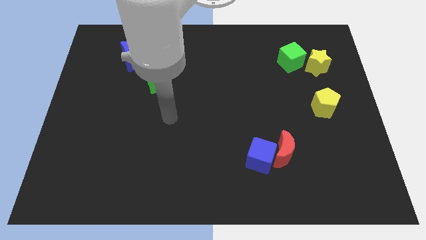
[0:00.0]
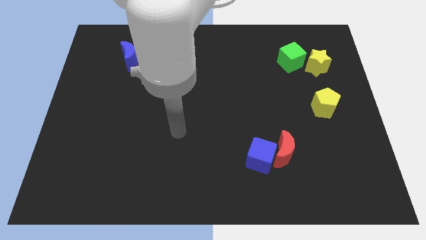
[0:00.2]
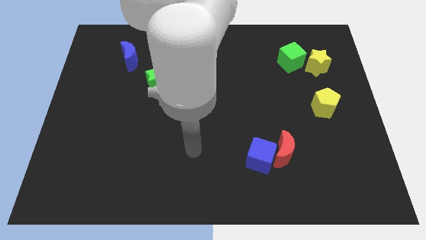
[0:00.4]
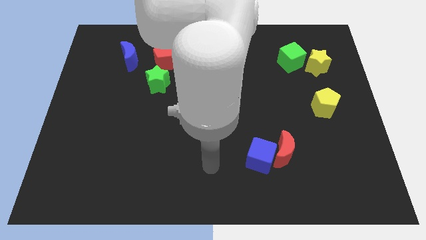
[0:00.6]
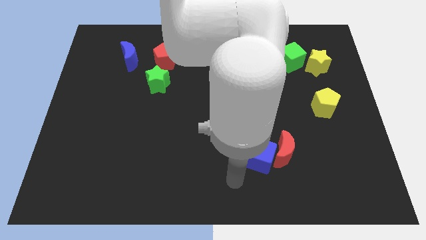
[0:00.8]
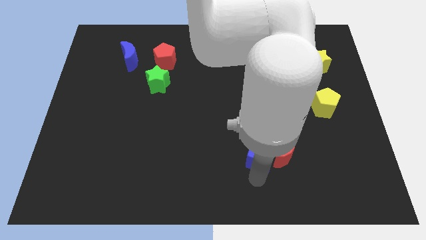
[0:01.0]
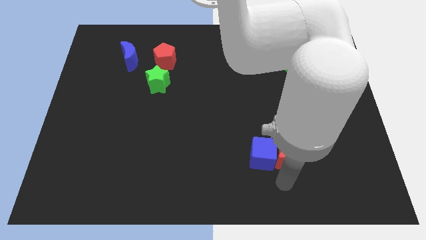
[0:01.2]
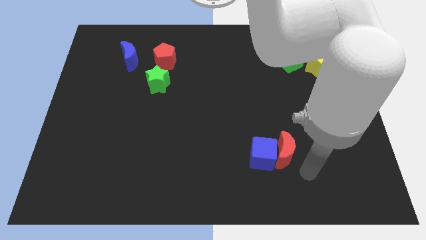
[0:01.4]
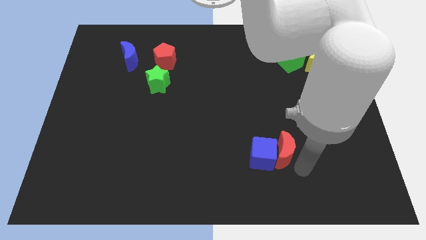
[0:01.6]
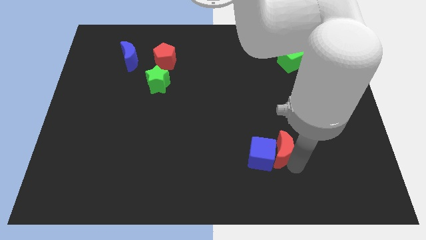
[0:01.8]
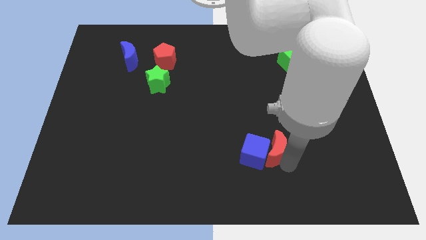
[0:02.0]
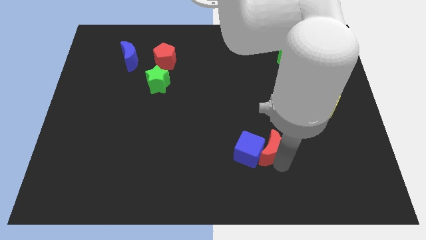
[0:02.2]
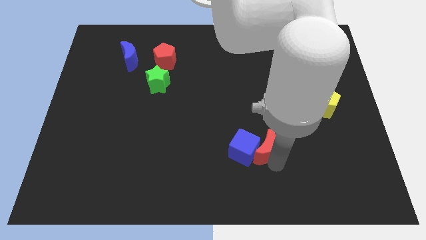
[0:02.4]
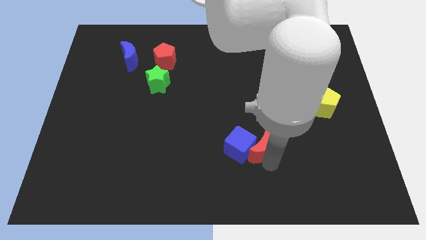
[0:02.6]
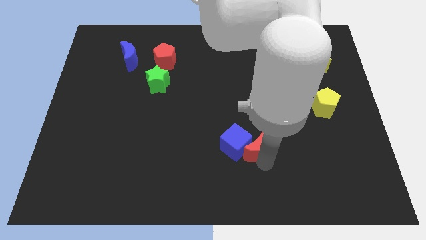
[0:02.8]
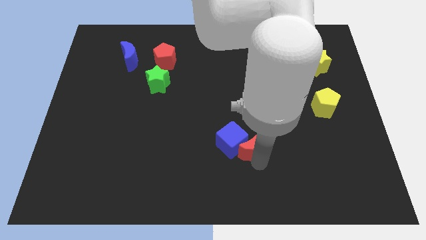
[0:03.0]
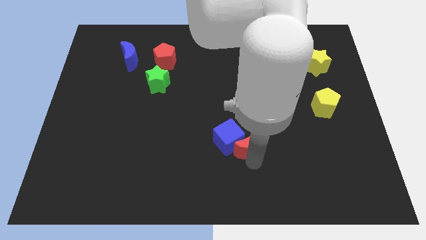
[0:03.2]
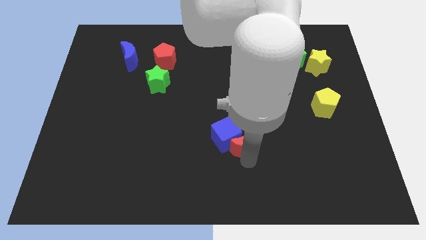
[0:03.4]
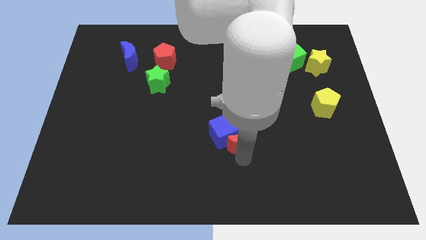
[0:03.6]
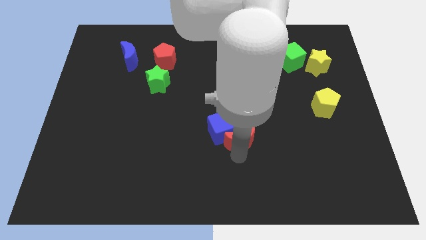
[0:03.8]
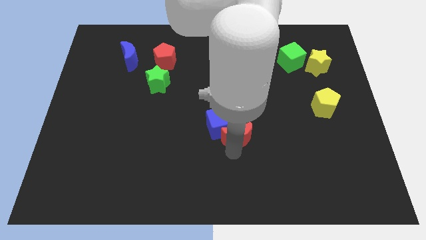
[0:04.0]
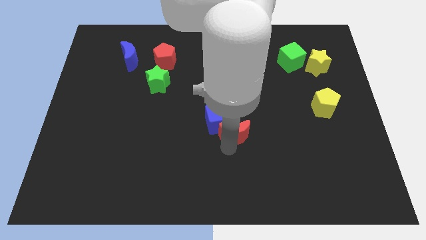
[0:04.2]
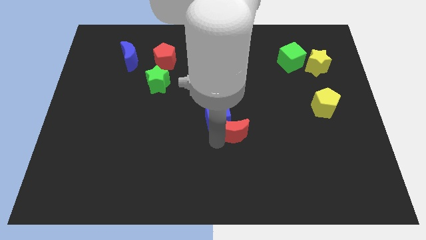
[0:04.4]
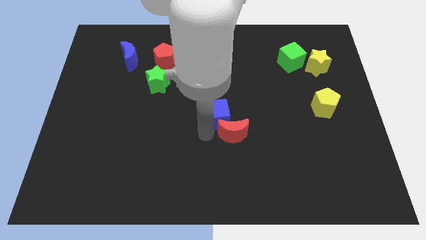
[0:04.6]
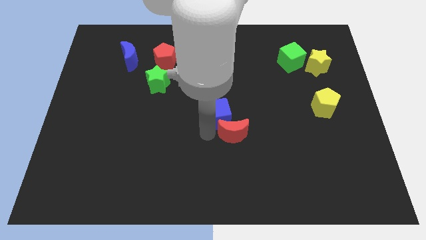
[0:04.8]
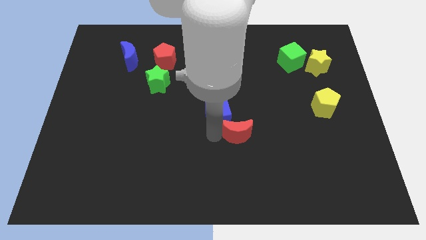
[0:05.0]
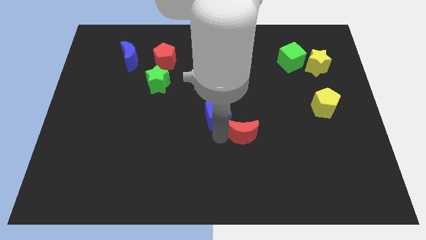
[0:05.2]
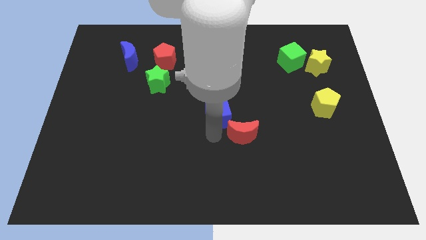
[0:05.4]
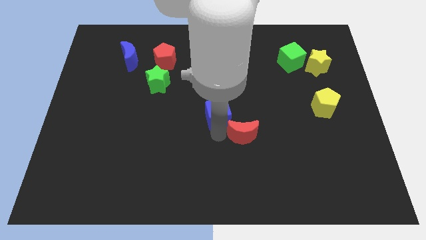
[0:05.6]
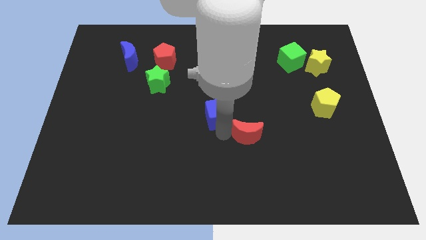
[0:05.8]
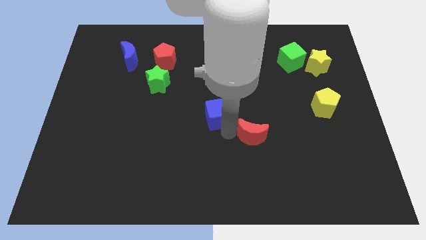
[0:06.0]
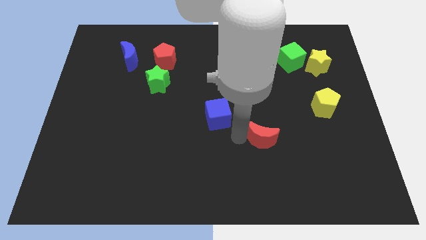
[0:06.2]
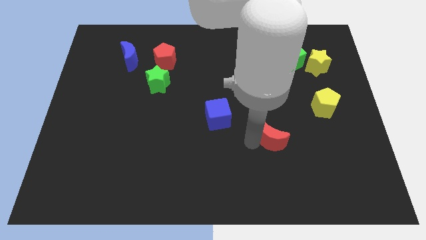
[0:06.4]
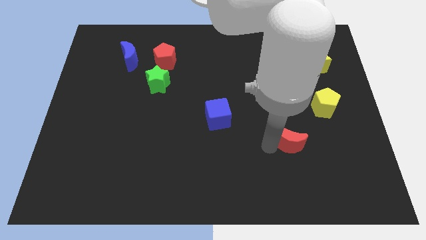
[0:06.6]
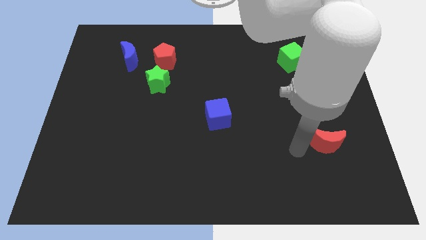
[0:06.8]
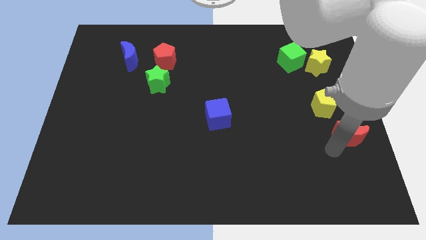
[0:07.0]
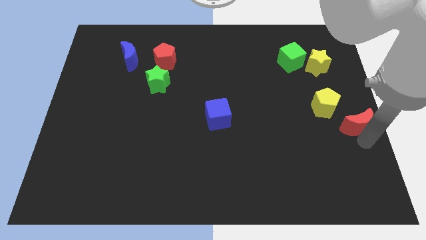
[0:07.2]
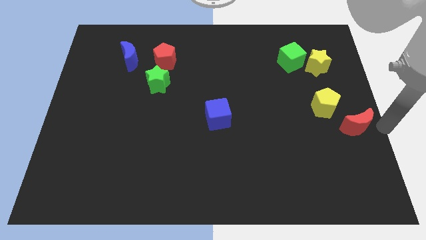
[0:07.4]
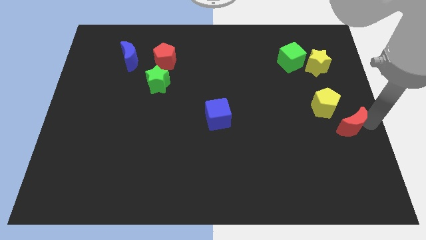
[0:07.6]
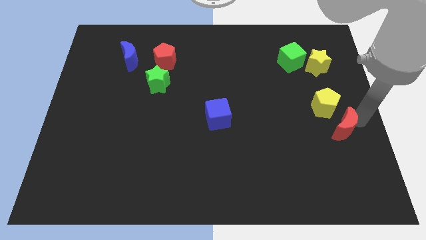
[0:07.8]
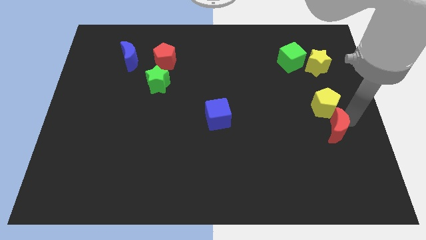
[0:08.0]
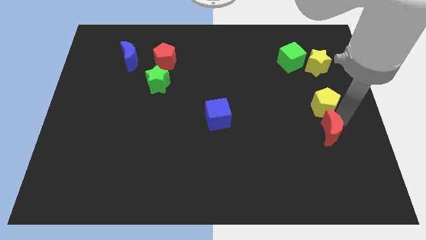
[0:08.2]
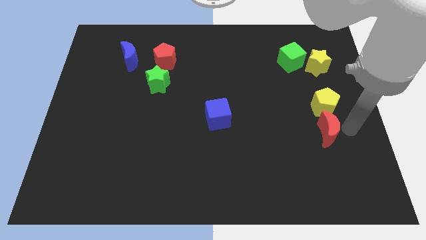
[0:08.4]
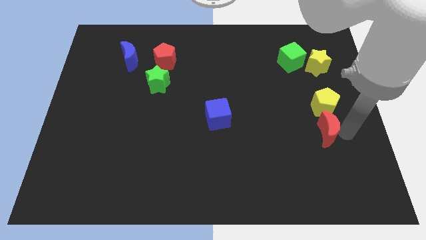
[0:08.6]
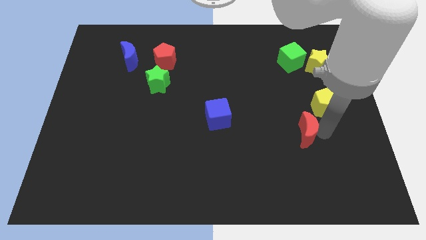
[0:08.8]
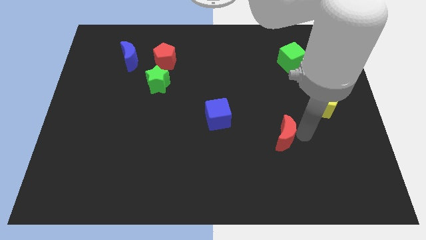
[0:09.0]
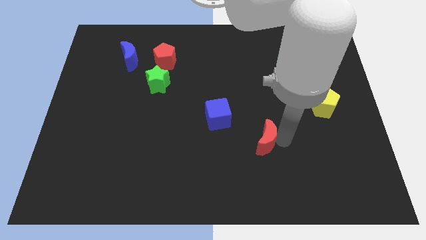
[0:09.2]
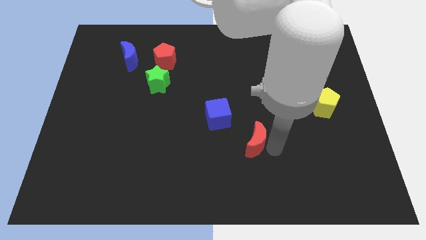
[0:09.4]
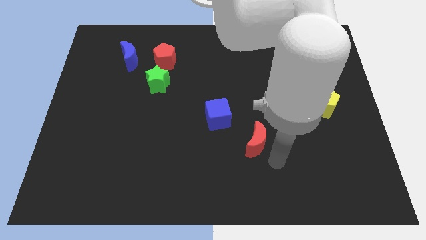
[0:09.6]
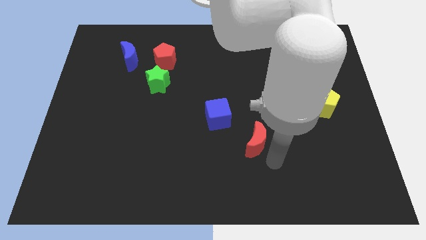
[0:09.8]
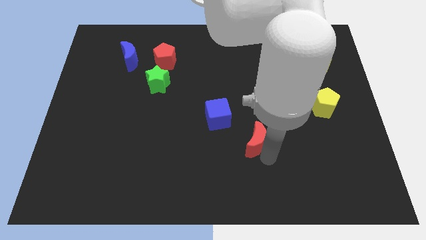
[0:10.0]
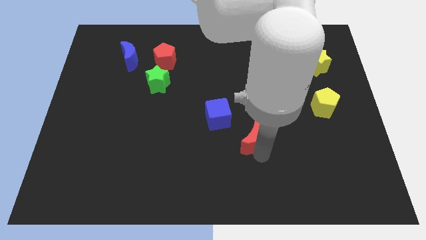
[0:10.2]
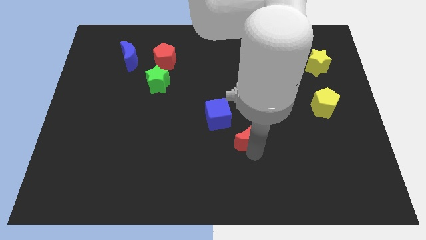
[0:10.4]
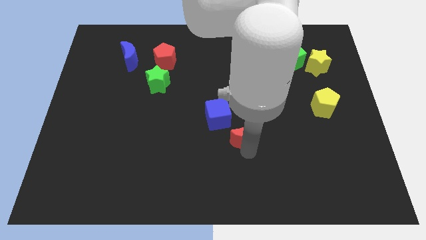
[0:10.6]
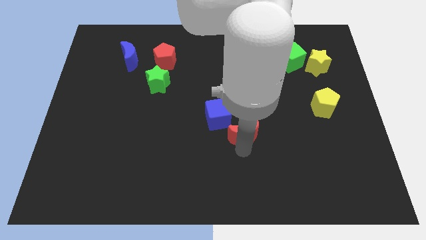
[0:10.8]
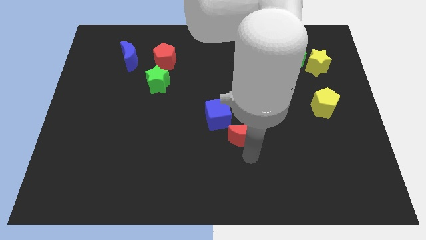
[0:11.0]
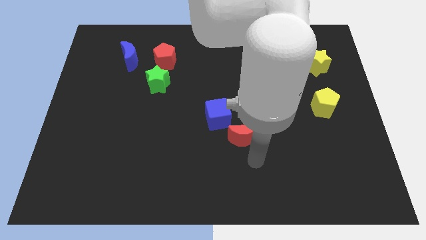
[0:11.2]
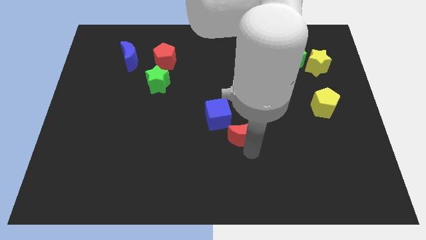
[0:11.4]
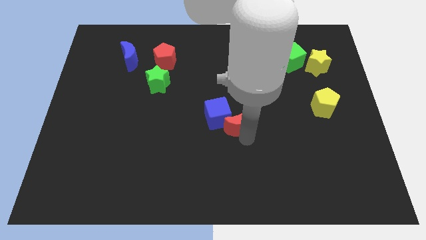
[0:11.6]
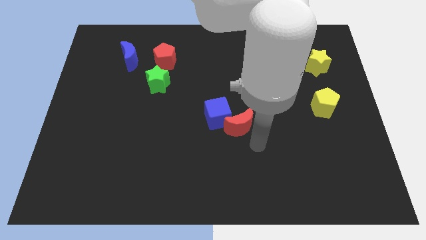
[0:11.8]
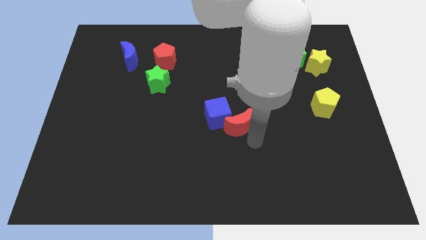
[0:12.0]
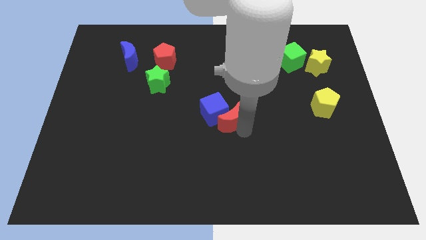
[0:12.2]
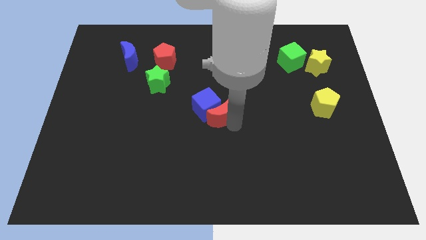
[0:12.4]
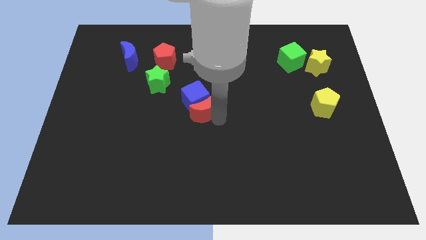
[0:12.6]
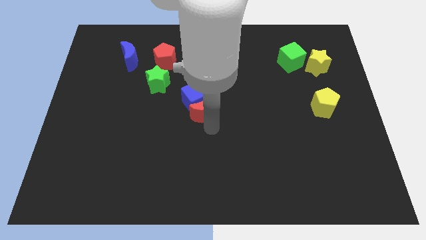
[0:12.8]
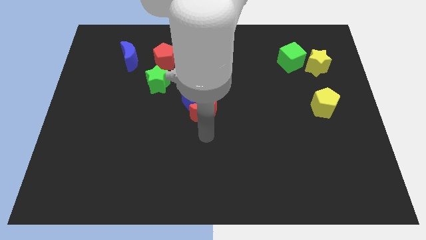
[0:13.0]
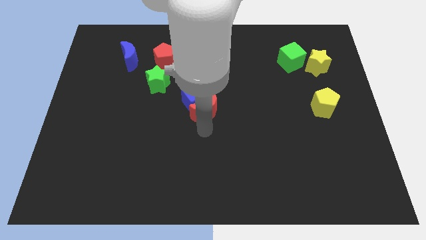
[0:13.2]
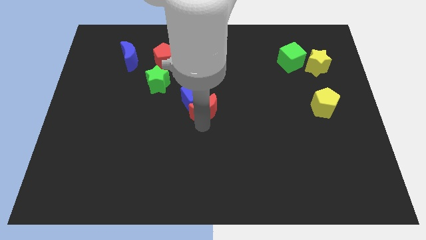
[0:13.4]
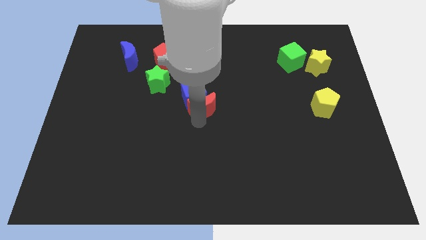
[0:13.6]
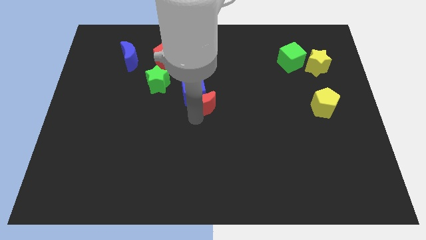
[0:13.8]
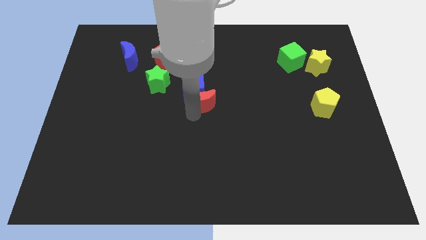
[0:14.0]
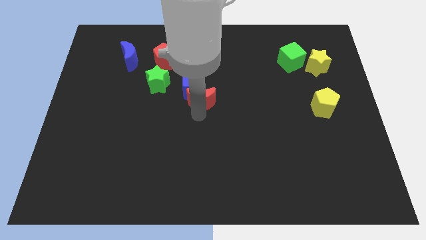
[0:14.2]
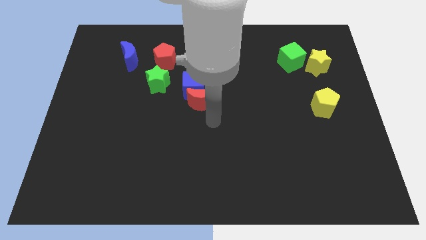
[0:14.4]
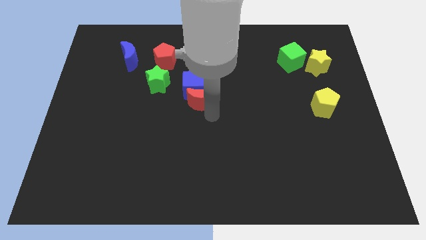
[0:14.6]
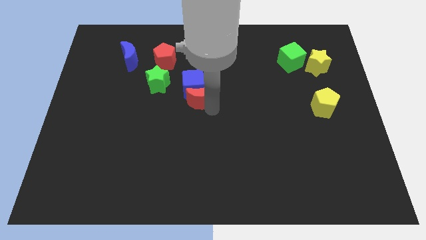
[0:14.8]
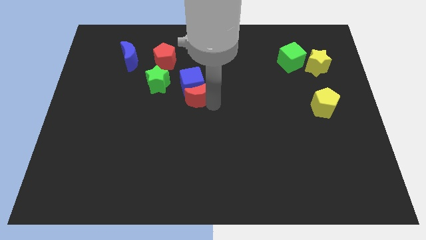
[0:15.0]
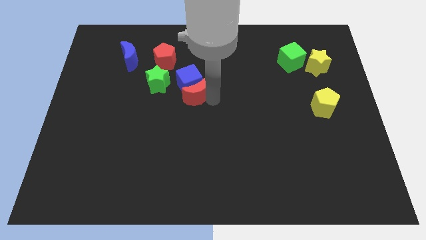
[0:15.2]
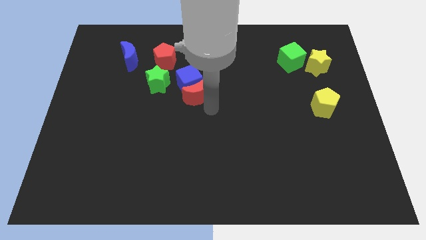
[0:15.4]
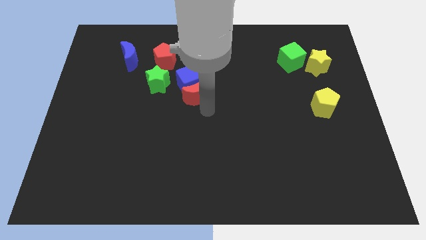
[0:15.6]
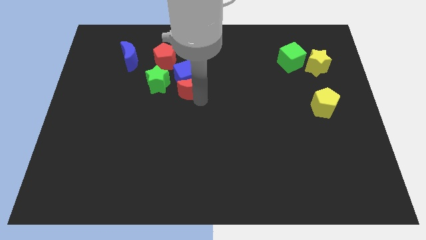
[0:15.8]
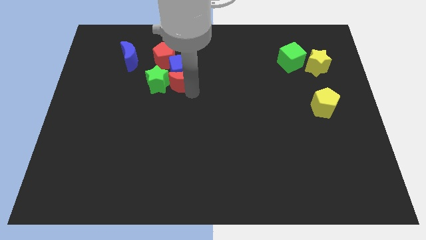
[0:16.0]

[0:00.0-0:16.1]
put the red moon to the top right side of the green star
